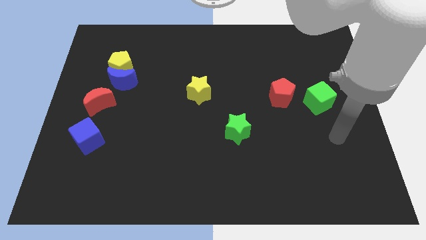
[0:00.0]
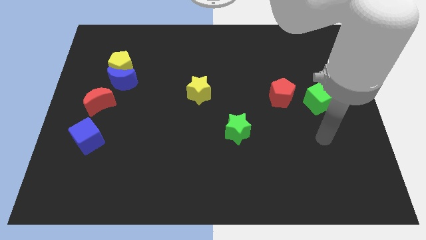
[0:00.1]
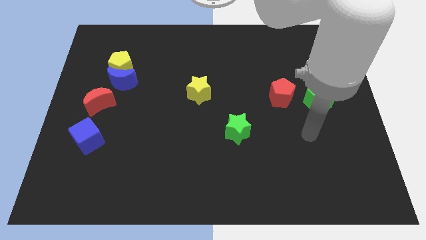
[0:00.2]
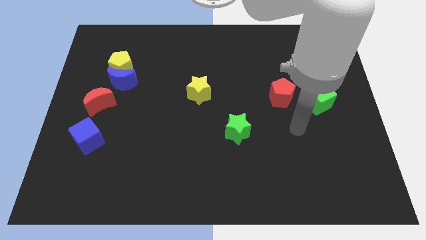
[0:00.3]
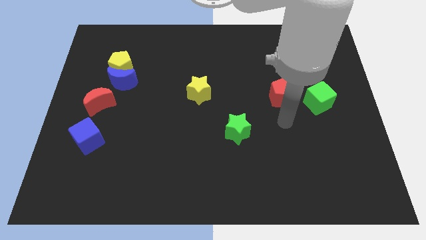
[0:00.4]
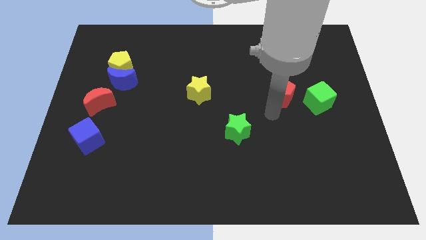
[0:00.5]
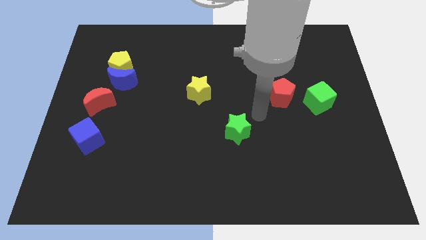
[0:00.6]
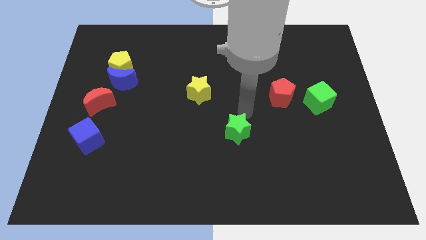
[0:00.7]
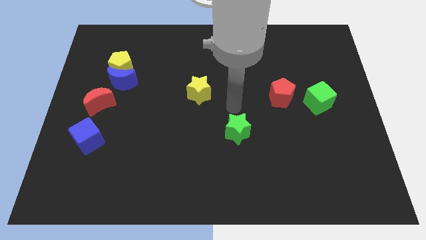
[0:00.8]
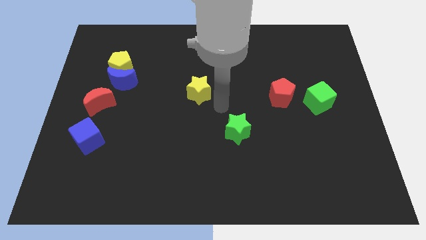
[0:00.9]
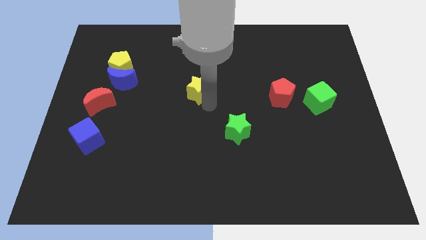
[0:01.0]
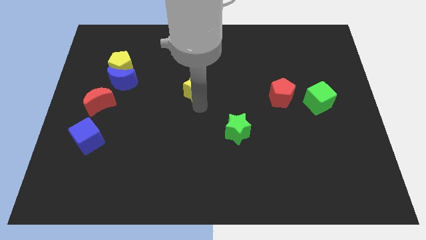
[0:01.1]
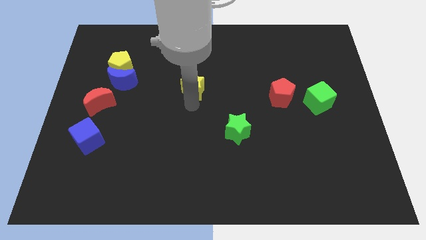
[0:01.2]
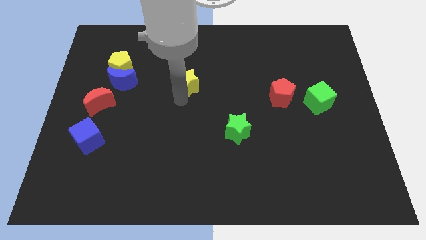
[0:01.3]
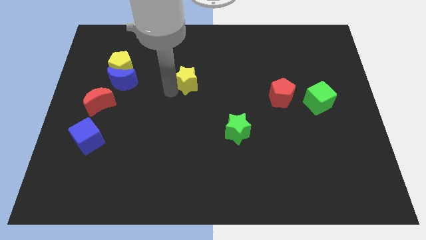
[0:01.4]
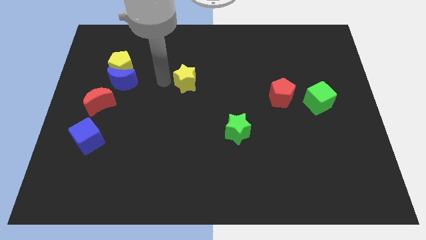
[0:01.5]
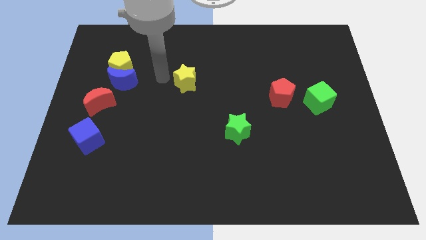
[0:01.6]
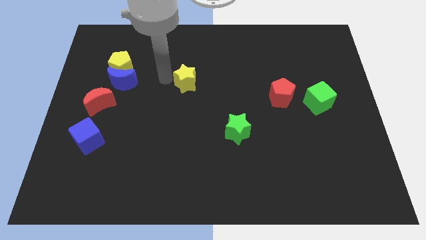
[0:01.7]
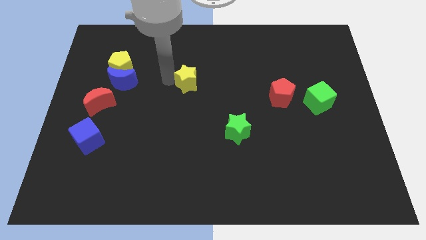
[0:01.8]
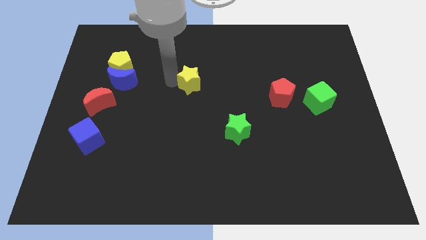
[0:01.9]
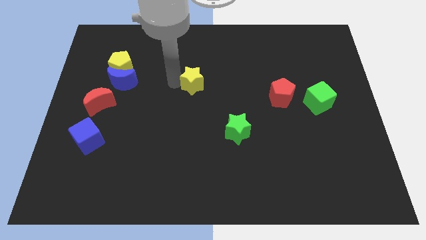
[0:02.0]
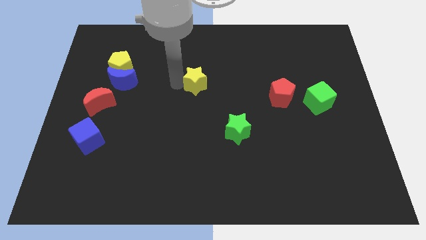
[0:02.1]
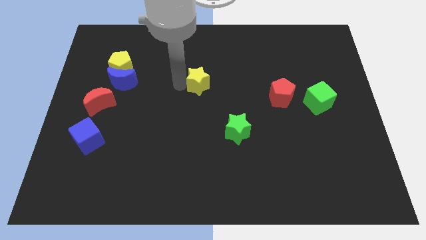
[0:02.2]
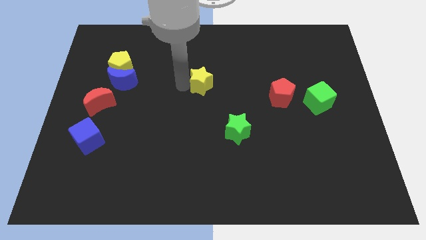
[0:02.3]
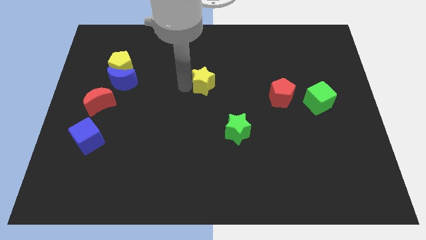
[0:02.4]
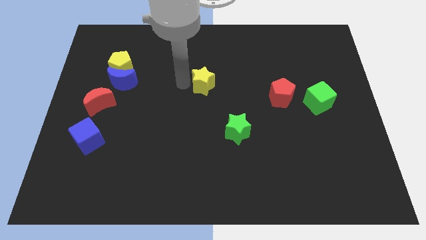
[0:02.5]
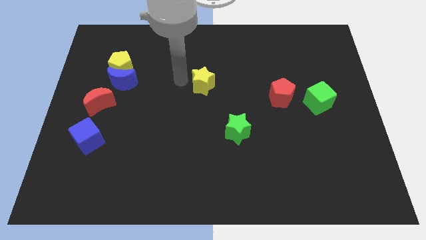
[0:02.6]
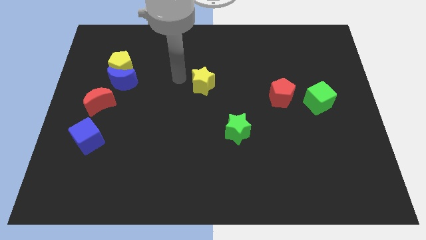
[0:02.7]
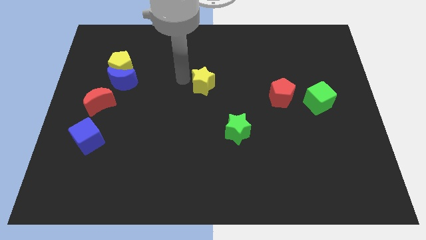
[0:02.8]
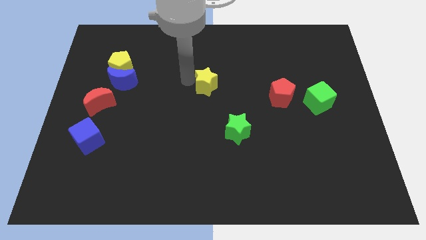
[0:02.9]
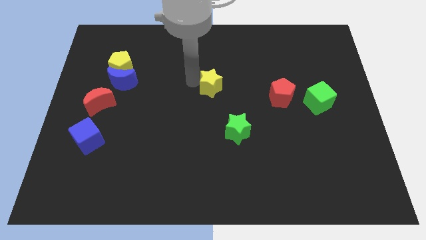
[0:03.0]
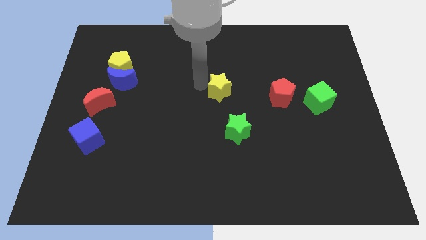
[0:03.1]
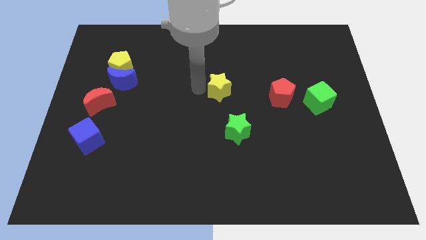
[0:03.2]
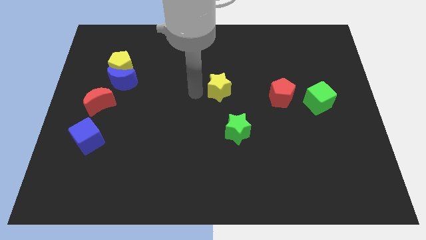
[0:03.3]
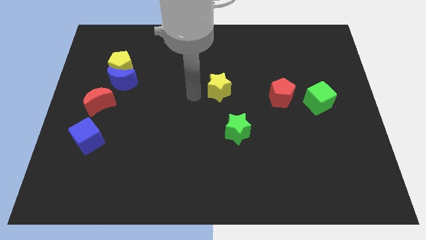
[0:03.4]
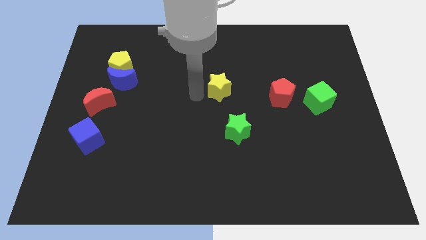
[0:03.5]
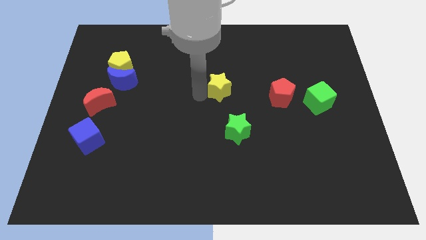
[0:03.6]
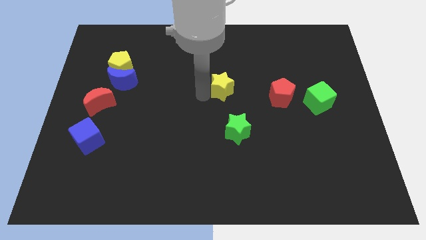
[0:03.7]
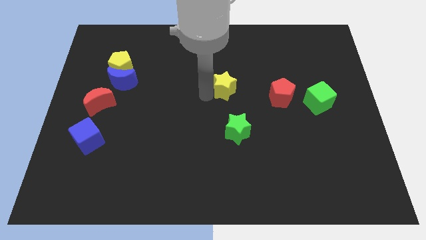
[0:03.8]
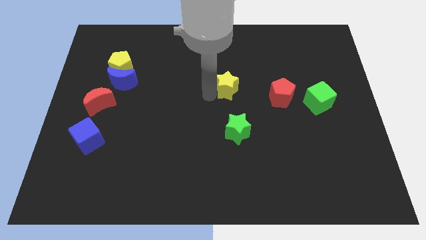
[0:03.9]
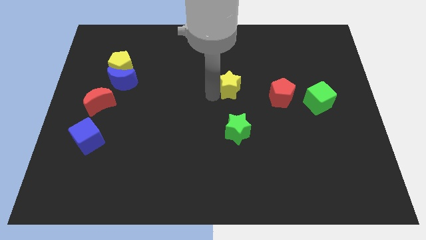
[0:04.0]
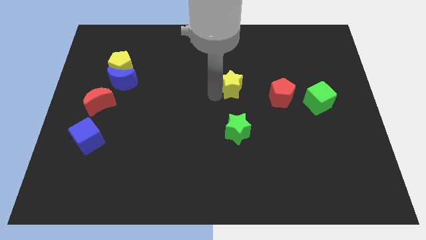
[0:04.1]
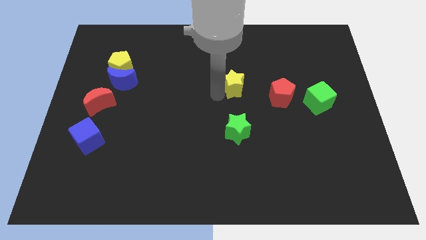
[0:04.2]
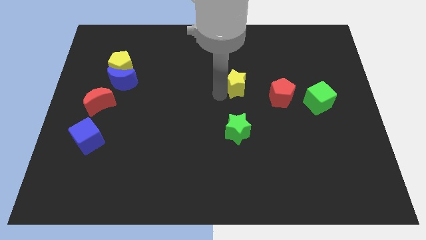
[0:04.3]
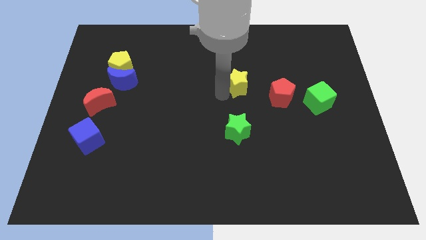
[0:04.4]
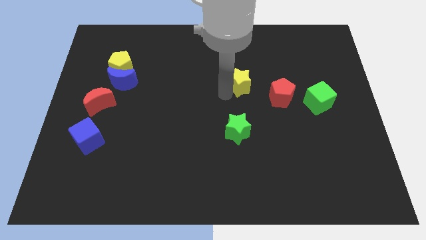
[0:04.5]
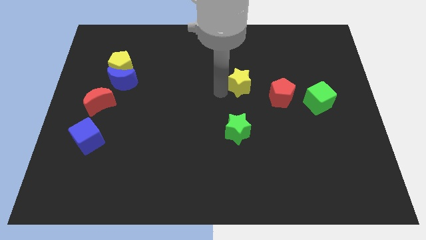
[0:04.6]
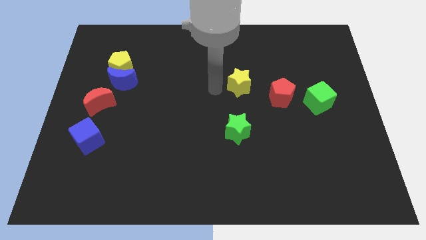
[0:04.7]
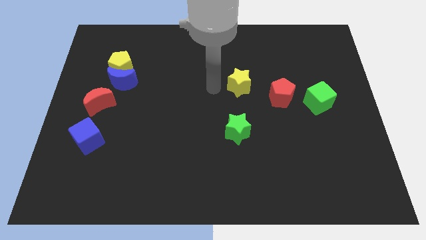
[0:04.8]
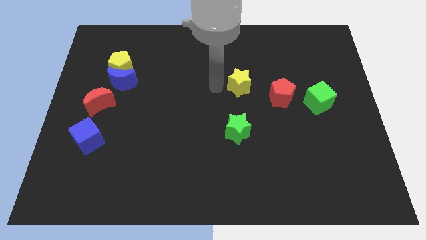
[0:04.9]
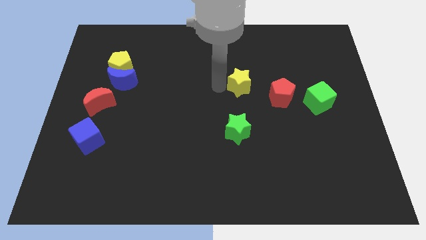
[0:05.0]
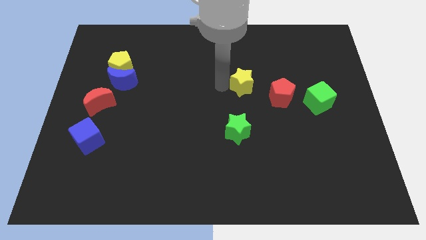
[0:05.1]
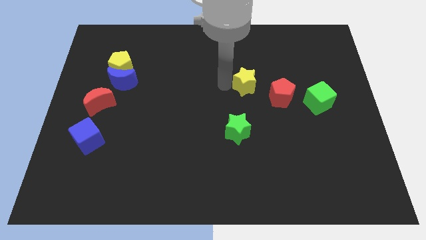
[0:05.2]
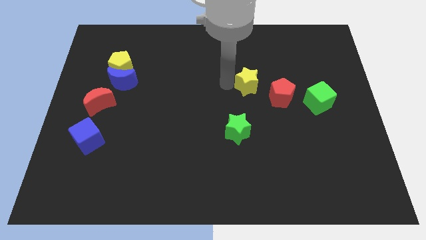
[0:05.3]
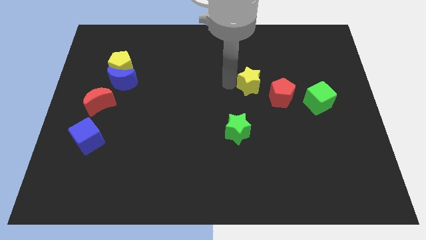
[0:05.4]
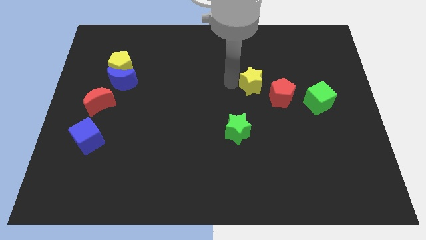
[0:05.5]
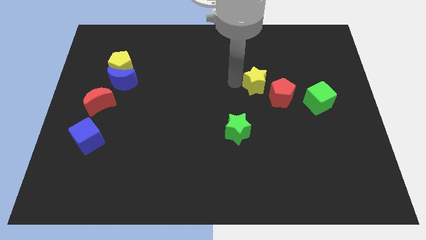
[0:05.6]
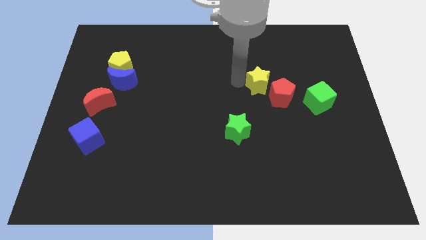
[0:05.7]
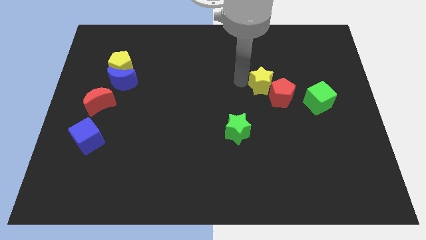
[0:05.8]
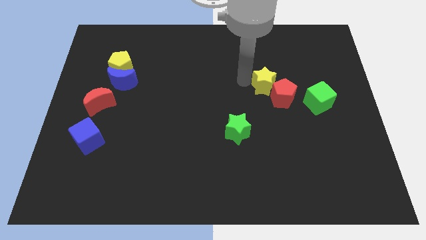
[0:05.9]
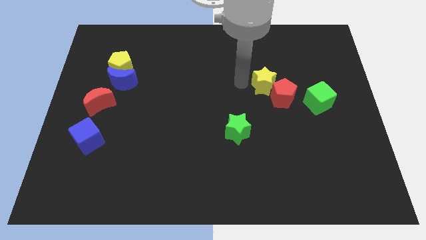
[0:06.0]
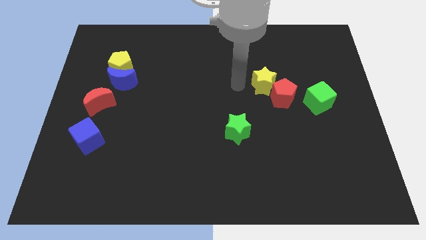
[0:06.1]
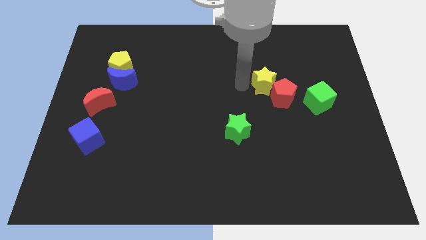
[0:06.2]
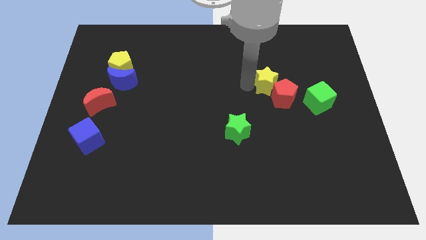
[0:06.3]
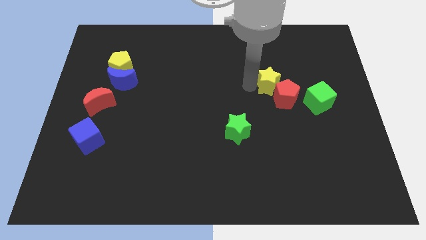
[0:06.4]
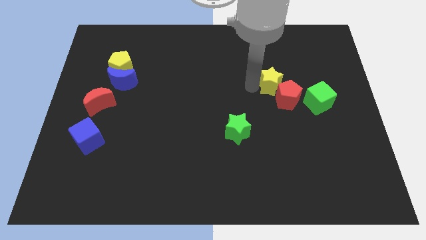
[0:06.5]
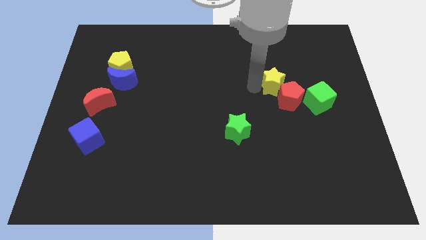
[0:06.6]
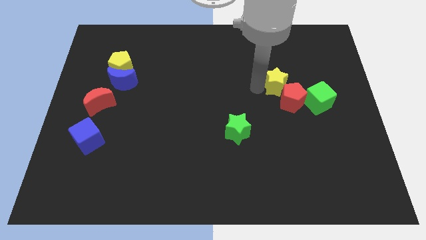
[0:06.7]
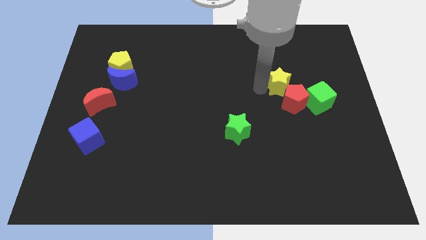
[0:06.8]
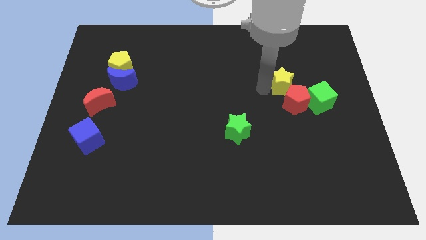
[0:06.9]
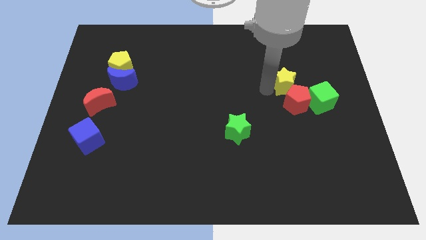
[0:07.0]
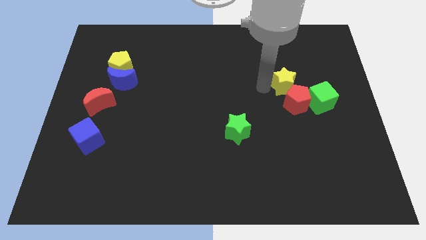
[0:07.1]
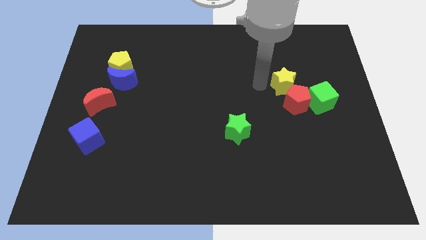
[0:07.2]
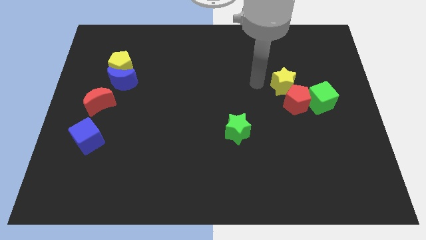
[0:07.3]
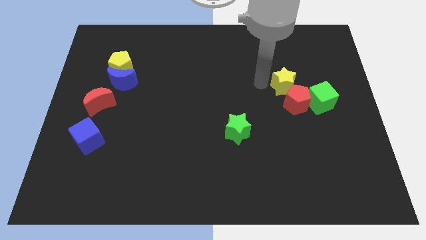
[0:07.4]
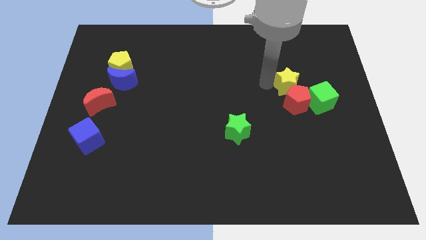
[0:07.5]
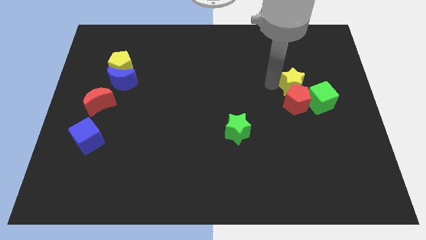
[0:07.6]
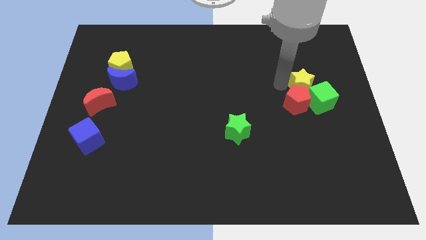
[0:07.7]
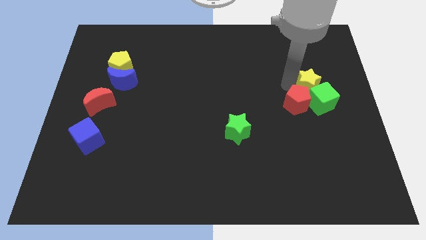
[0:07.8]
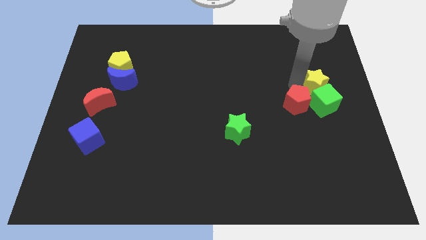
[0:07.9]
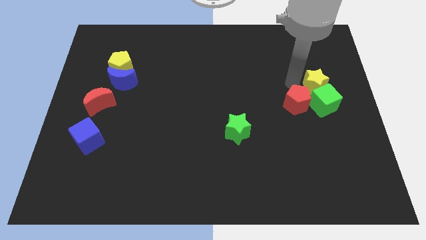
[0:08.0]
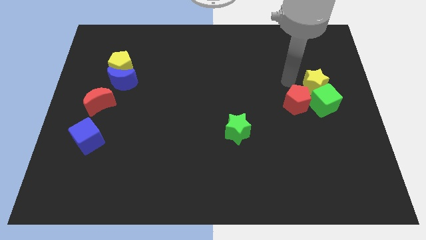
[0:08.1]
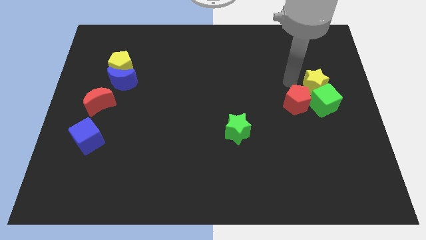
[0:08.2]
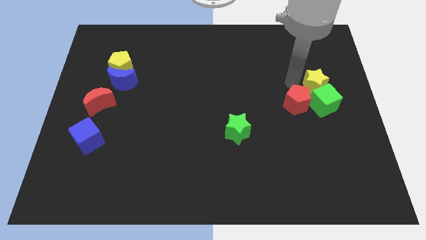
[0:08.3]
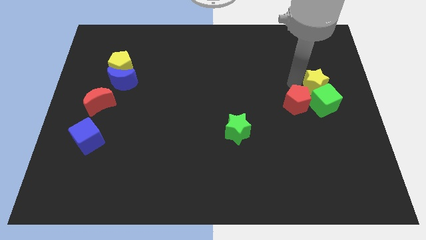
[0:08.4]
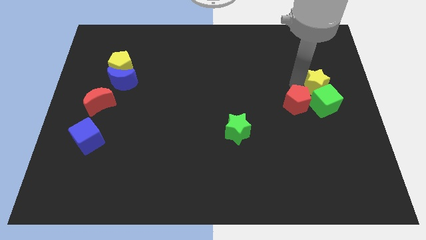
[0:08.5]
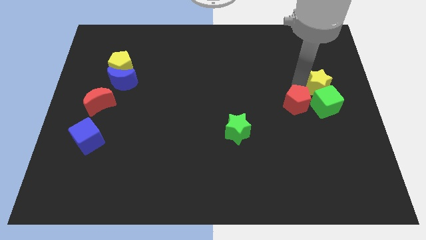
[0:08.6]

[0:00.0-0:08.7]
slide the yellow star to the right side
